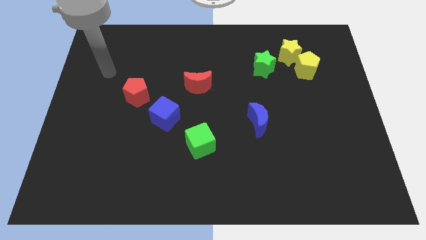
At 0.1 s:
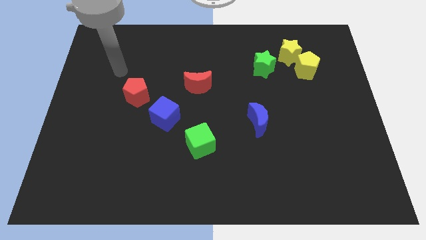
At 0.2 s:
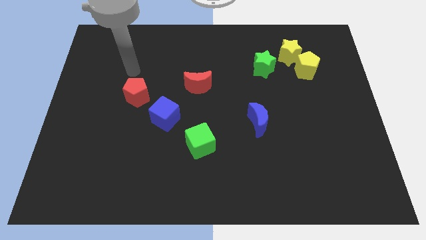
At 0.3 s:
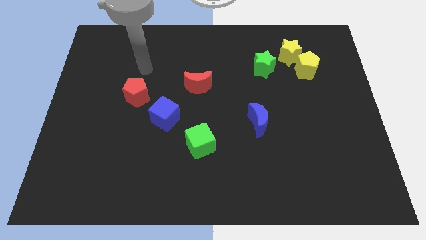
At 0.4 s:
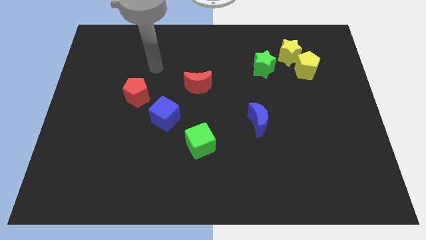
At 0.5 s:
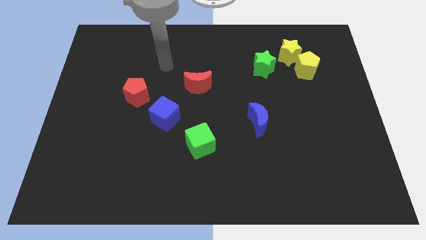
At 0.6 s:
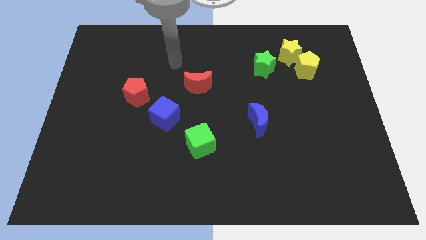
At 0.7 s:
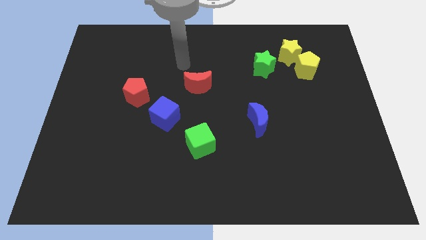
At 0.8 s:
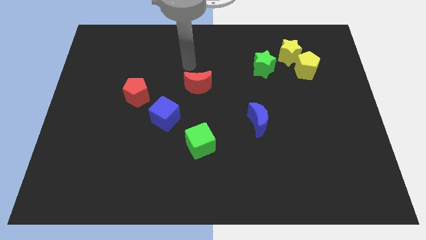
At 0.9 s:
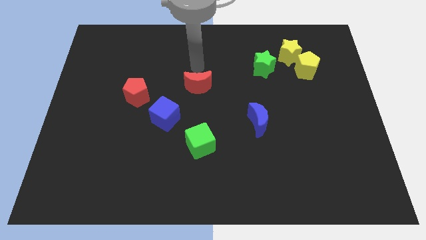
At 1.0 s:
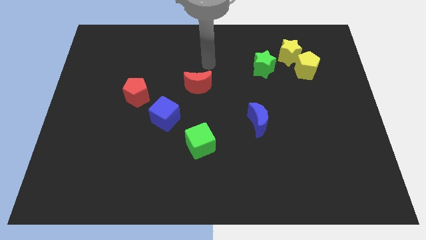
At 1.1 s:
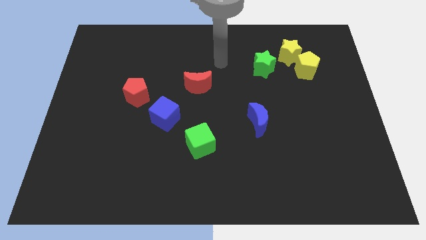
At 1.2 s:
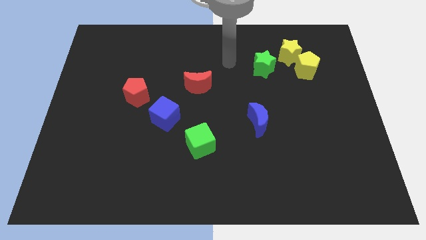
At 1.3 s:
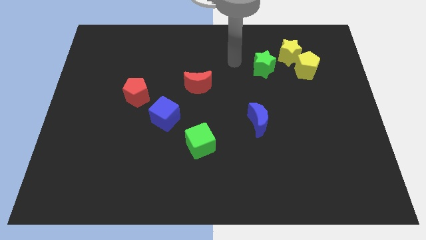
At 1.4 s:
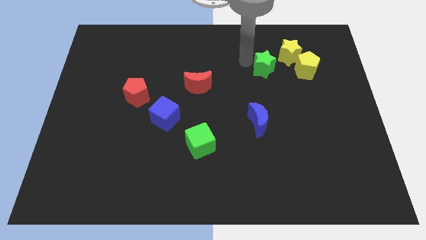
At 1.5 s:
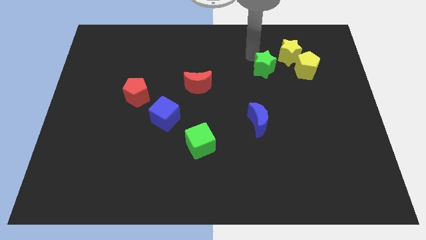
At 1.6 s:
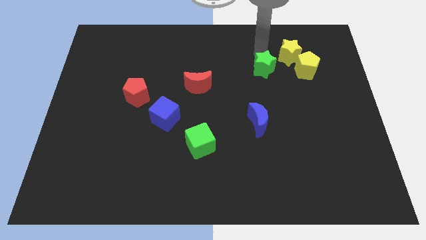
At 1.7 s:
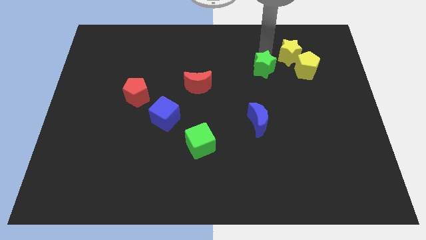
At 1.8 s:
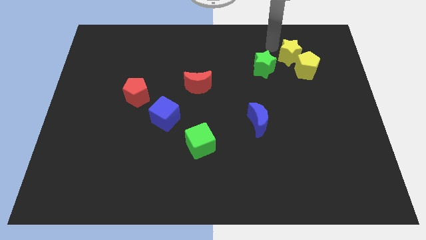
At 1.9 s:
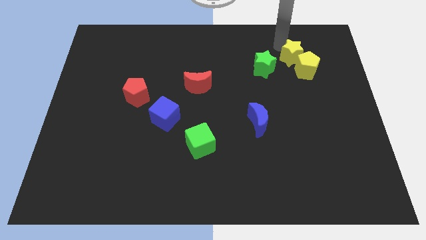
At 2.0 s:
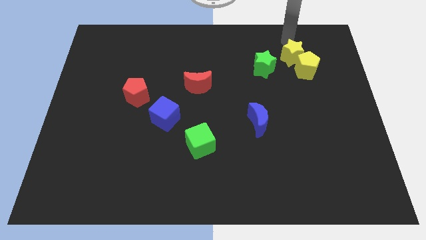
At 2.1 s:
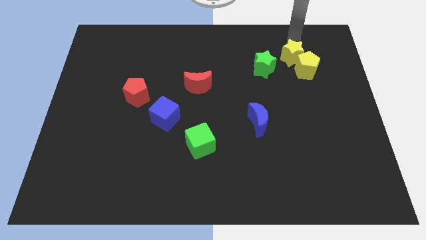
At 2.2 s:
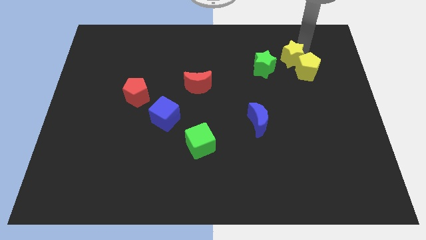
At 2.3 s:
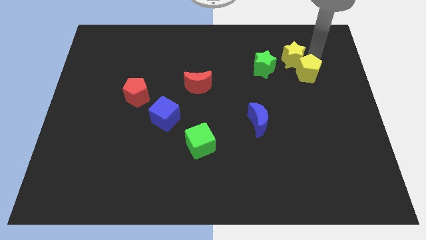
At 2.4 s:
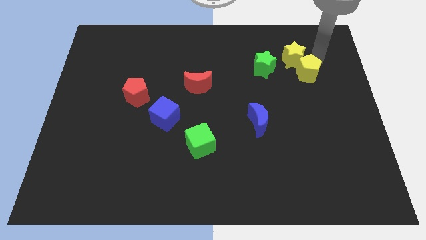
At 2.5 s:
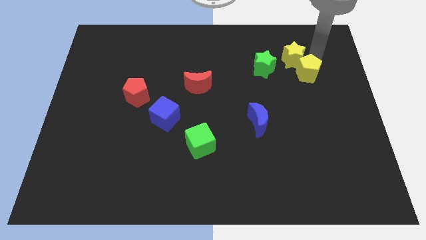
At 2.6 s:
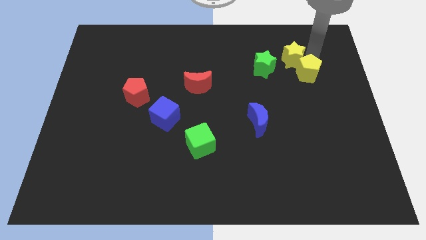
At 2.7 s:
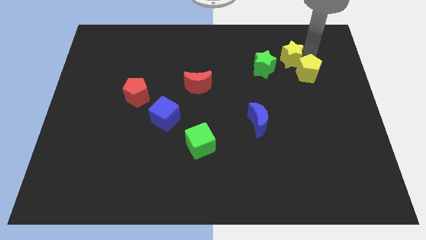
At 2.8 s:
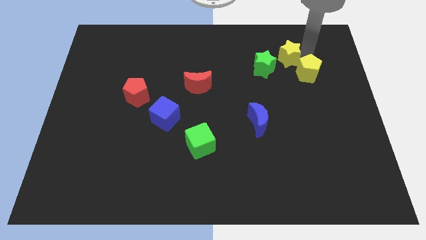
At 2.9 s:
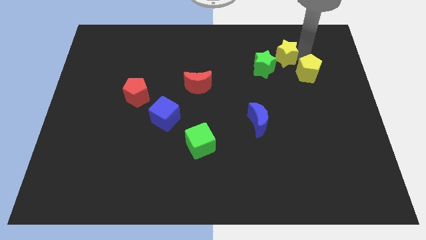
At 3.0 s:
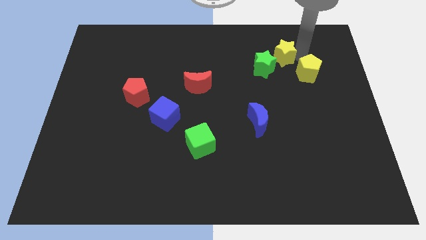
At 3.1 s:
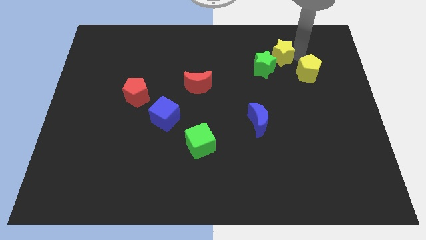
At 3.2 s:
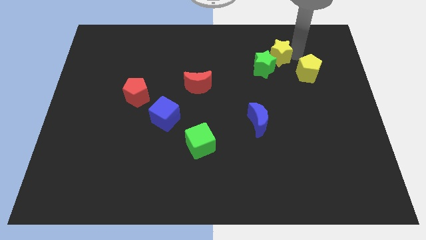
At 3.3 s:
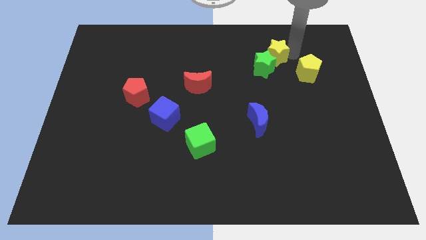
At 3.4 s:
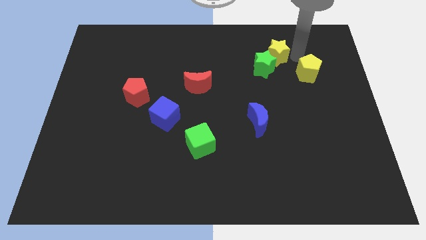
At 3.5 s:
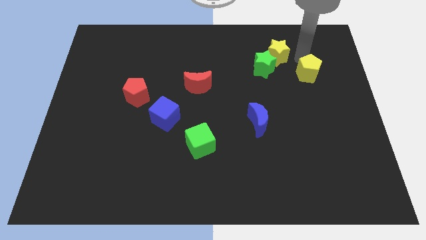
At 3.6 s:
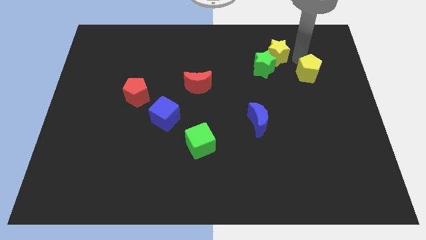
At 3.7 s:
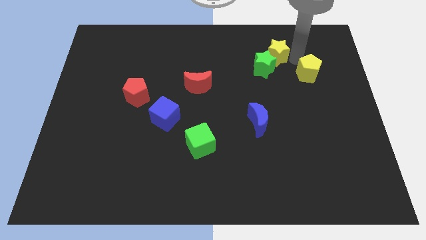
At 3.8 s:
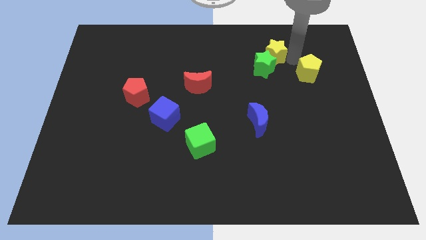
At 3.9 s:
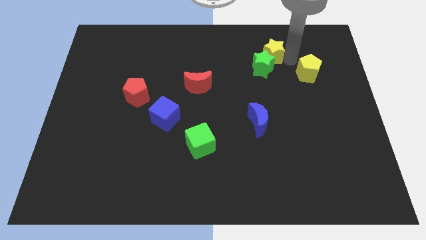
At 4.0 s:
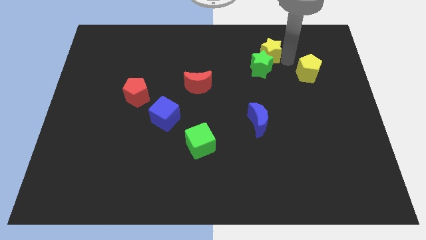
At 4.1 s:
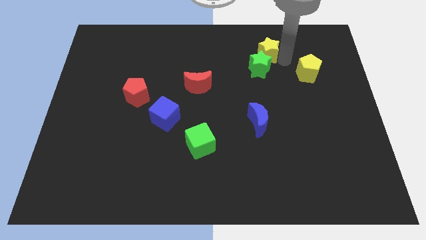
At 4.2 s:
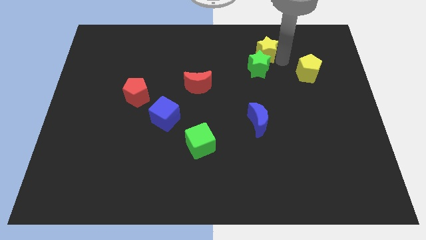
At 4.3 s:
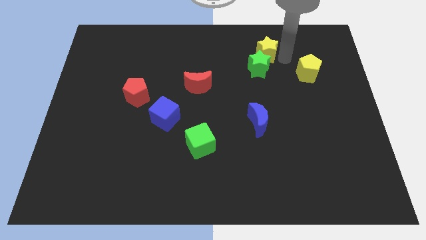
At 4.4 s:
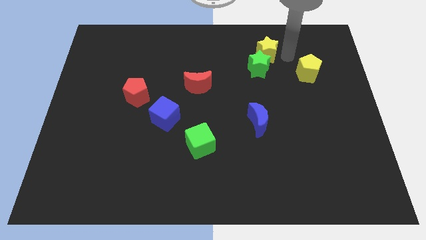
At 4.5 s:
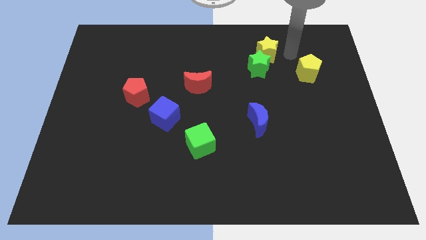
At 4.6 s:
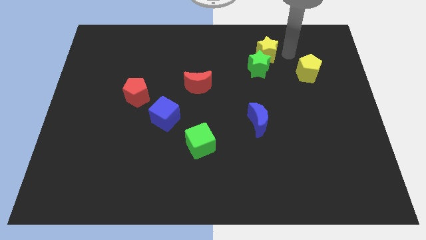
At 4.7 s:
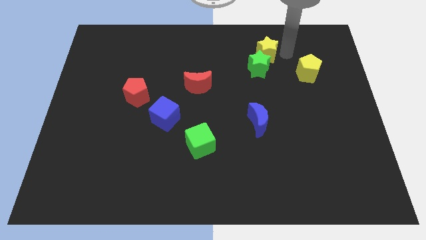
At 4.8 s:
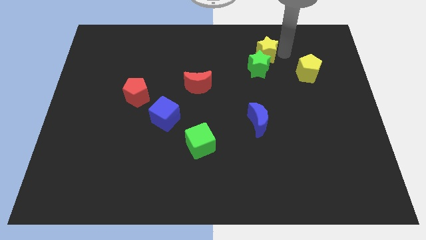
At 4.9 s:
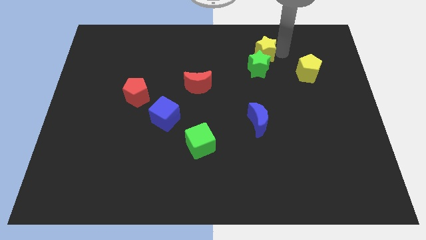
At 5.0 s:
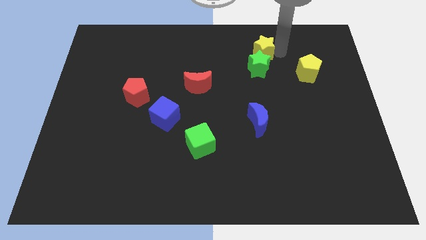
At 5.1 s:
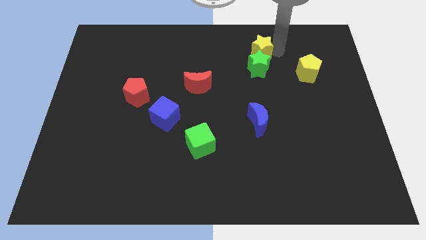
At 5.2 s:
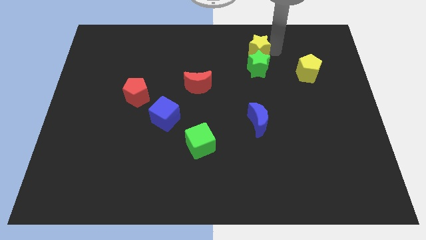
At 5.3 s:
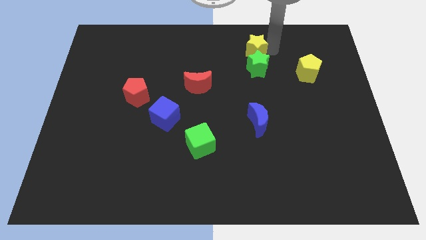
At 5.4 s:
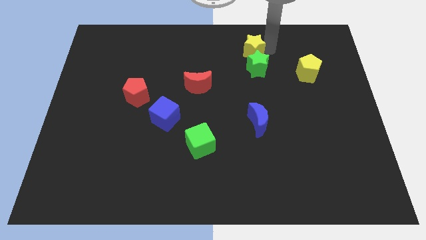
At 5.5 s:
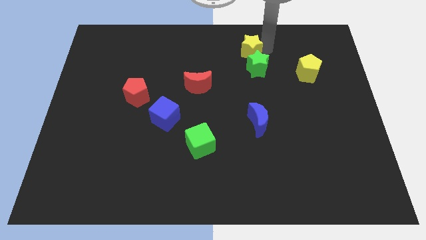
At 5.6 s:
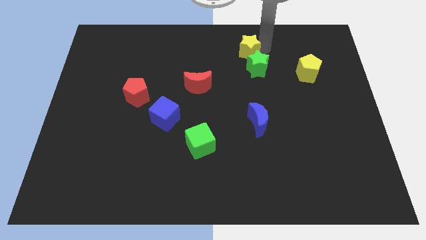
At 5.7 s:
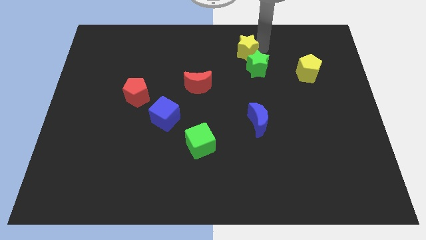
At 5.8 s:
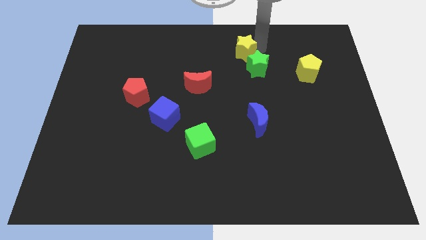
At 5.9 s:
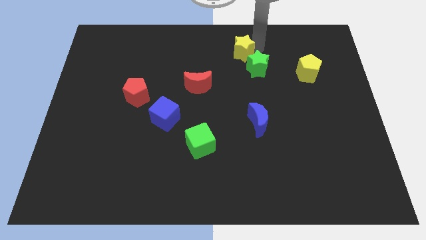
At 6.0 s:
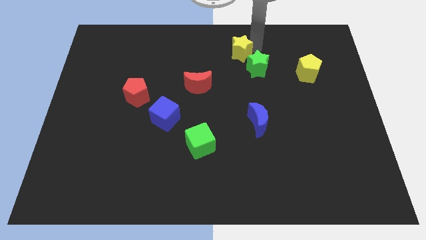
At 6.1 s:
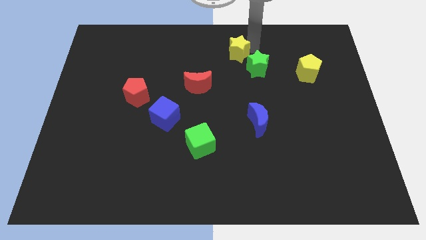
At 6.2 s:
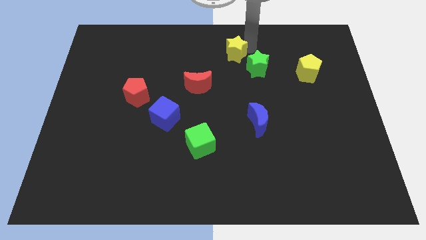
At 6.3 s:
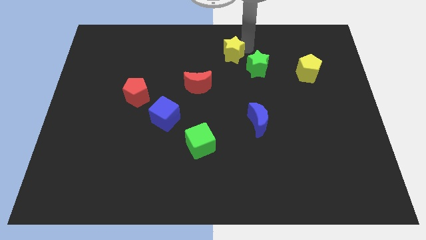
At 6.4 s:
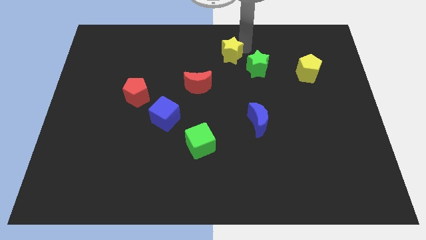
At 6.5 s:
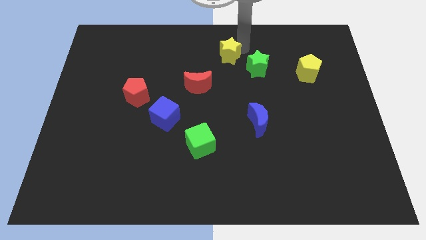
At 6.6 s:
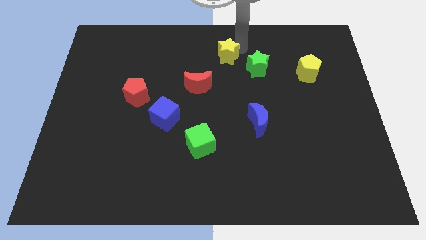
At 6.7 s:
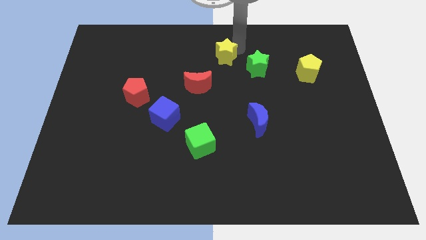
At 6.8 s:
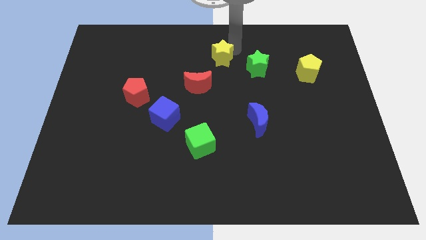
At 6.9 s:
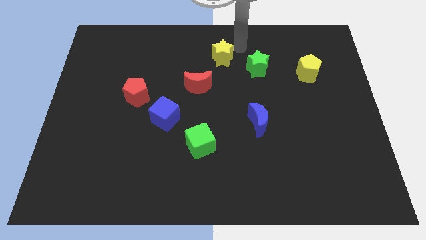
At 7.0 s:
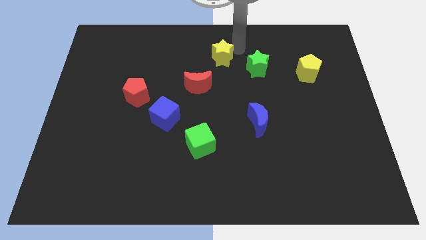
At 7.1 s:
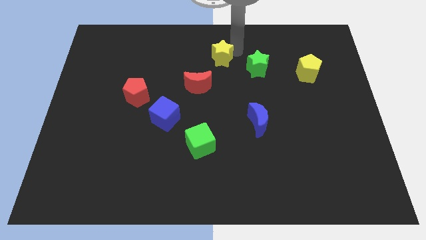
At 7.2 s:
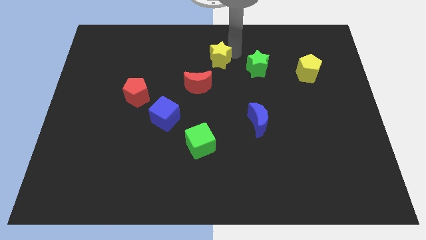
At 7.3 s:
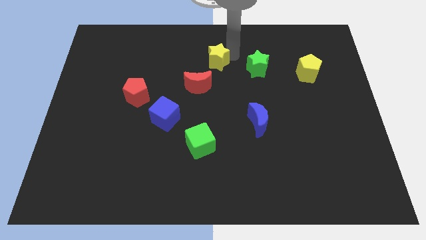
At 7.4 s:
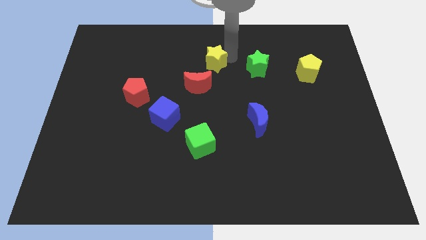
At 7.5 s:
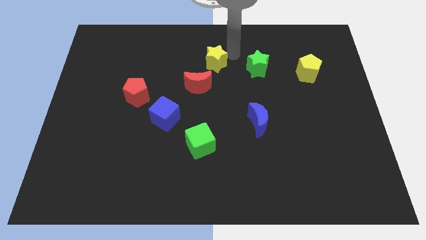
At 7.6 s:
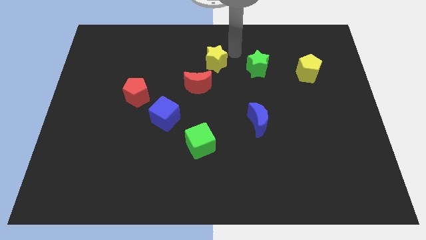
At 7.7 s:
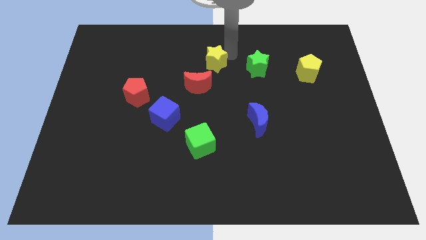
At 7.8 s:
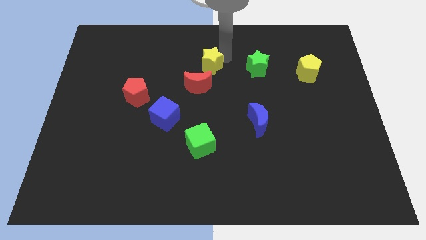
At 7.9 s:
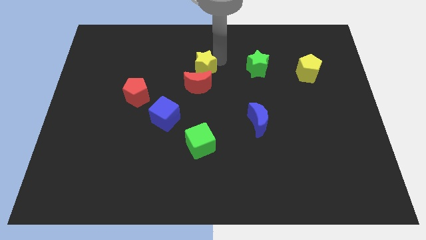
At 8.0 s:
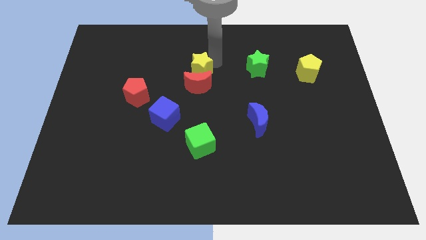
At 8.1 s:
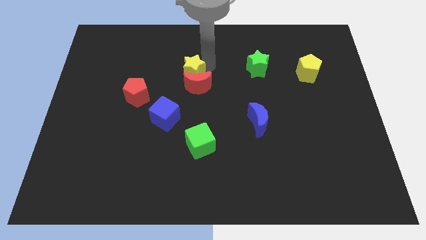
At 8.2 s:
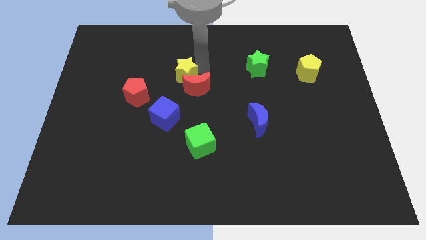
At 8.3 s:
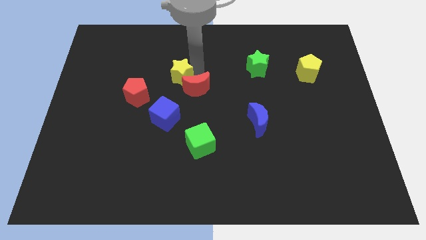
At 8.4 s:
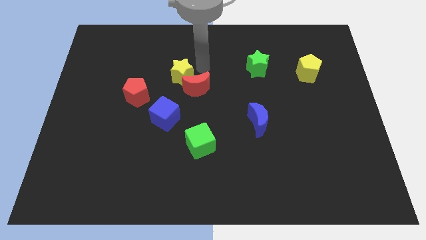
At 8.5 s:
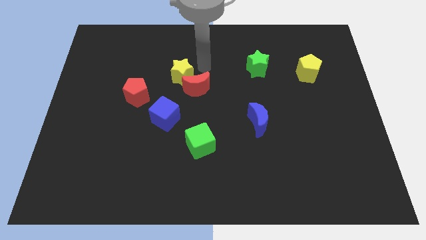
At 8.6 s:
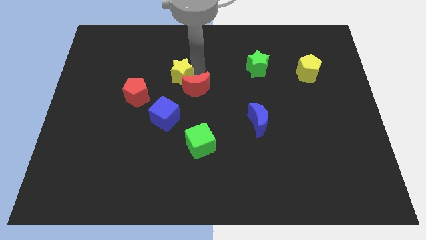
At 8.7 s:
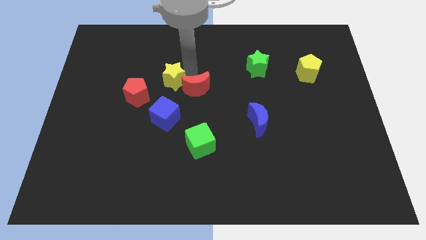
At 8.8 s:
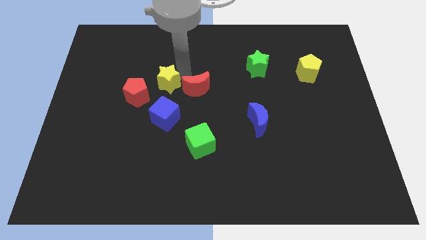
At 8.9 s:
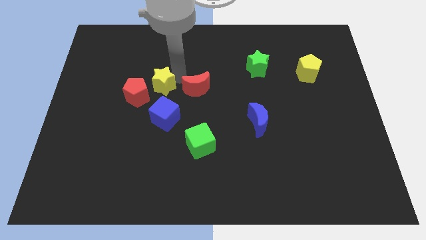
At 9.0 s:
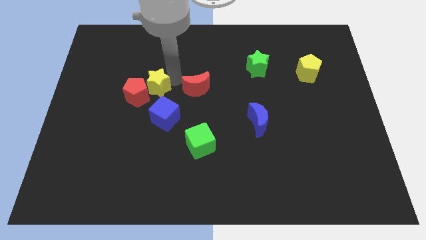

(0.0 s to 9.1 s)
slide the yellow star close to the red pentagon
